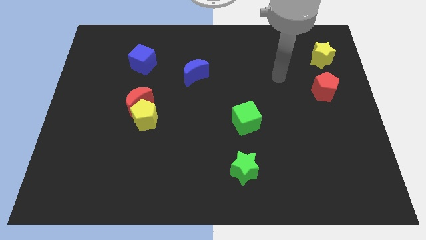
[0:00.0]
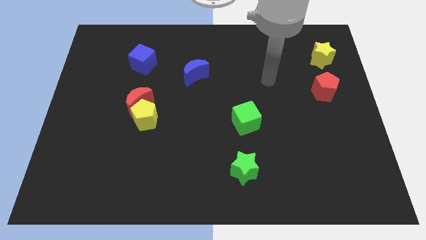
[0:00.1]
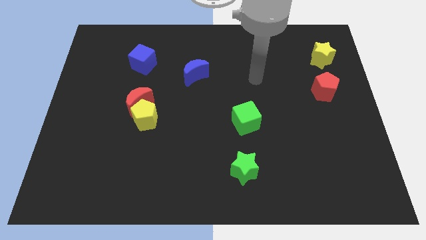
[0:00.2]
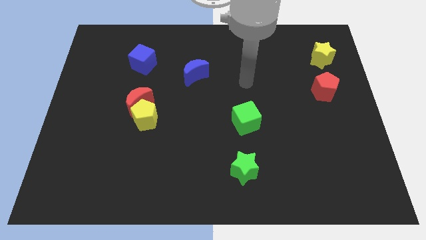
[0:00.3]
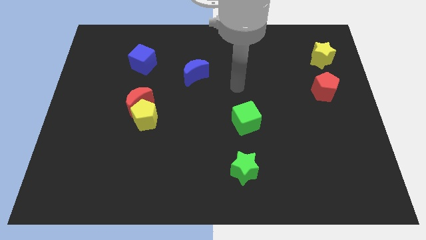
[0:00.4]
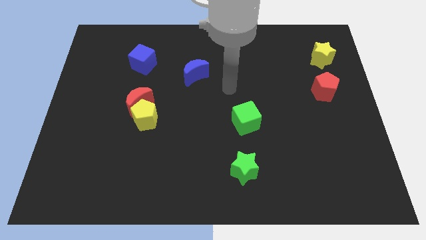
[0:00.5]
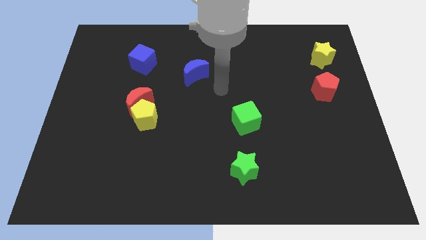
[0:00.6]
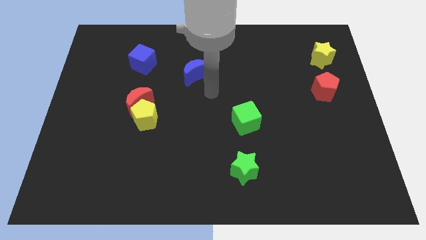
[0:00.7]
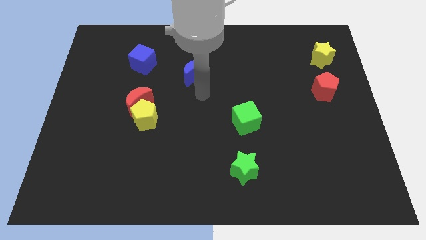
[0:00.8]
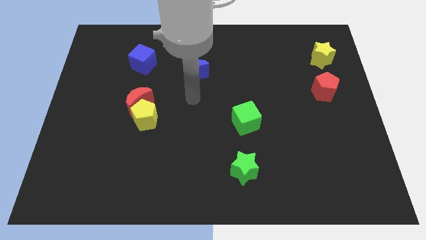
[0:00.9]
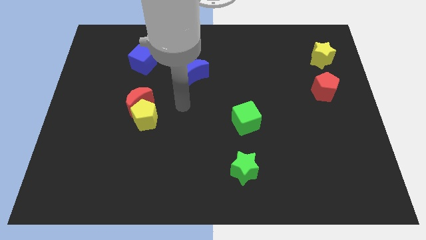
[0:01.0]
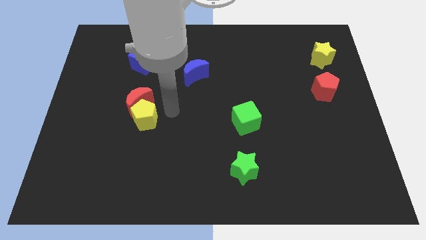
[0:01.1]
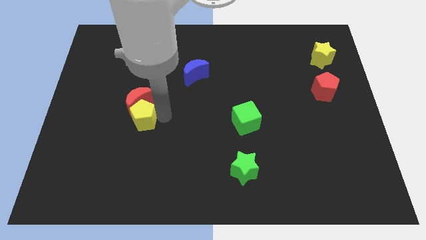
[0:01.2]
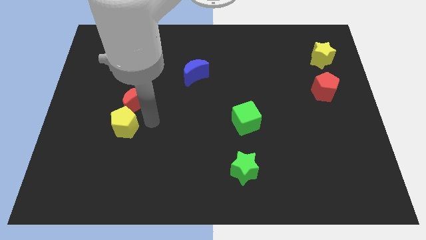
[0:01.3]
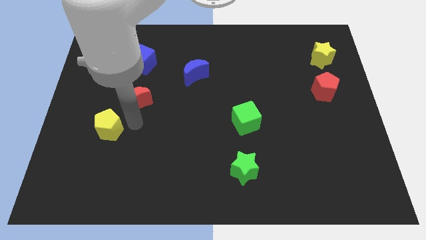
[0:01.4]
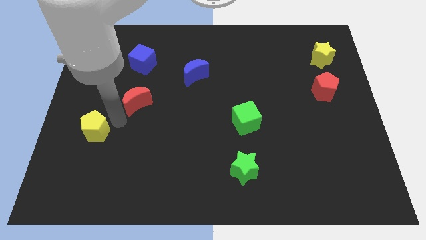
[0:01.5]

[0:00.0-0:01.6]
pull the red moon apart from the yellow pentagon

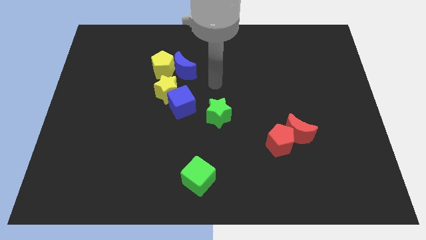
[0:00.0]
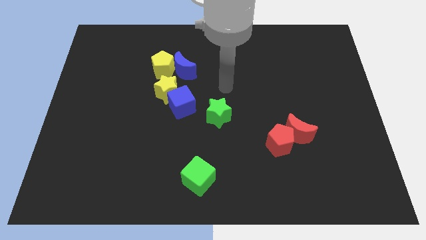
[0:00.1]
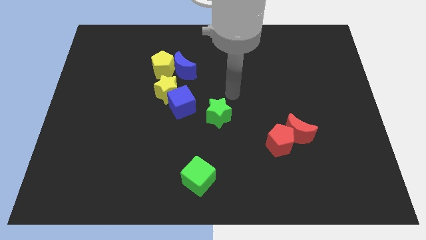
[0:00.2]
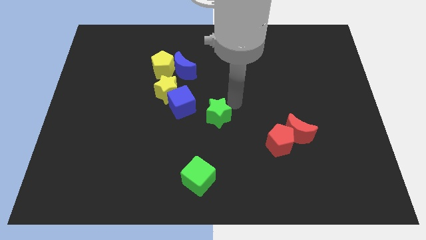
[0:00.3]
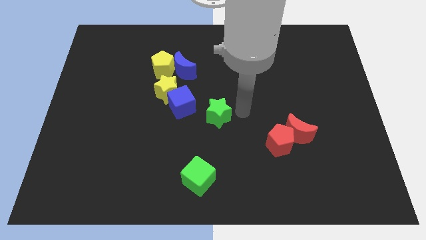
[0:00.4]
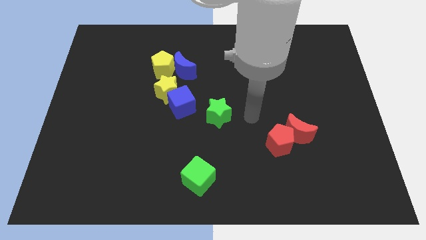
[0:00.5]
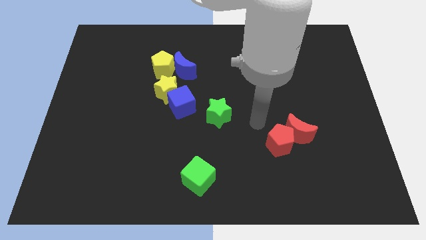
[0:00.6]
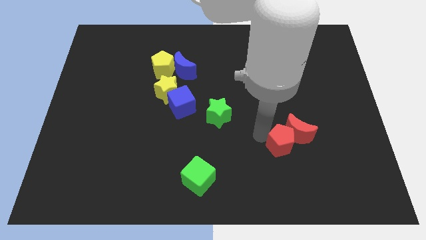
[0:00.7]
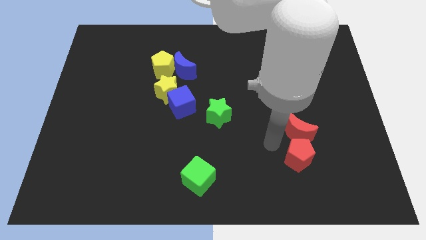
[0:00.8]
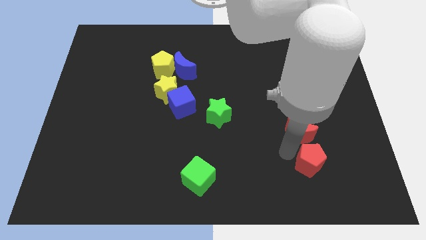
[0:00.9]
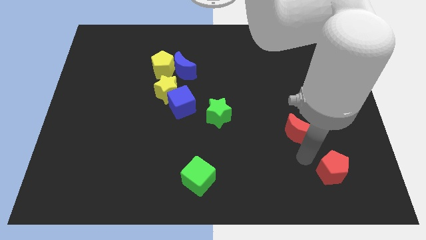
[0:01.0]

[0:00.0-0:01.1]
move the red moon away from the red pentagon

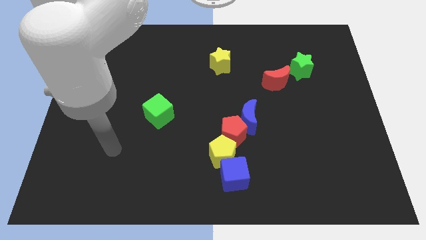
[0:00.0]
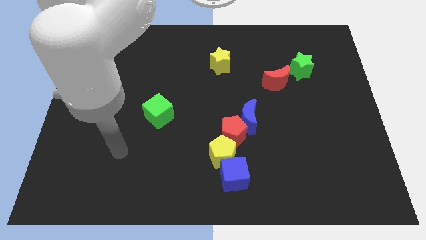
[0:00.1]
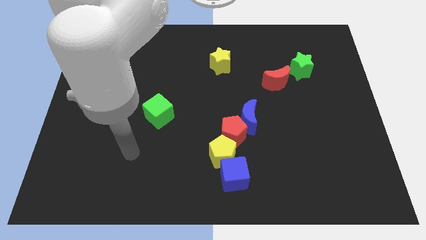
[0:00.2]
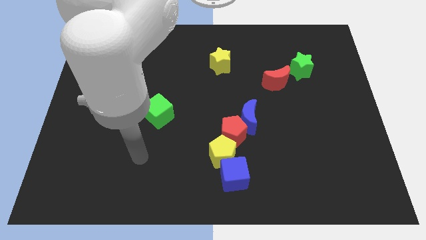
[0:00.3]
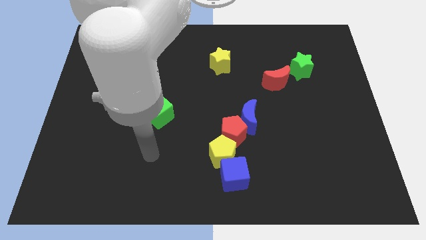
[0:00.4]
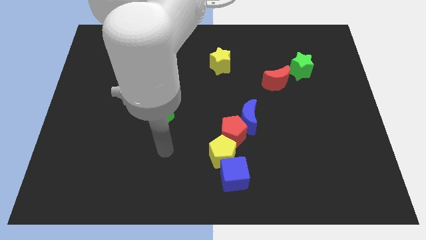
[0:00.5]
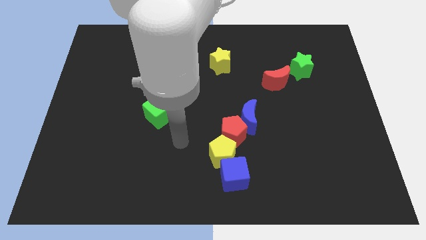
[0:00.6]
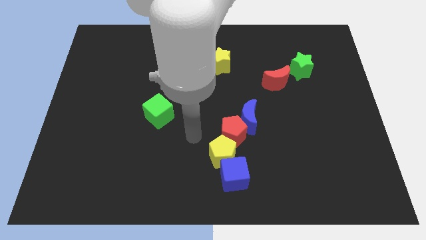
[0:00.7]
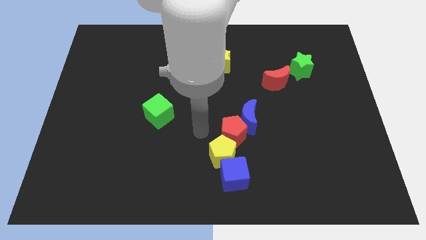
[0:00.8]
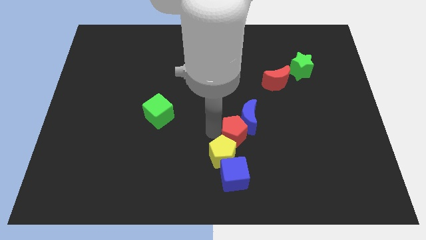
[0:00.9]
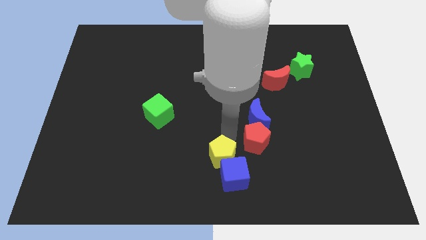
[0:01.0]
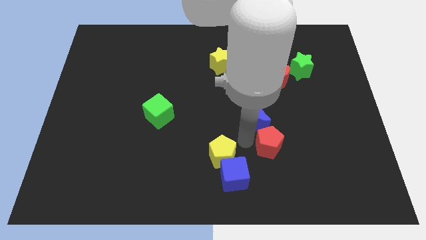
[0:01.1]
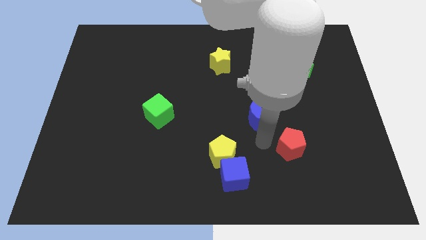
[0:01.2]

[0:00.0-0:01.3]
pull the blue moon apart from the red pentagon

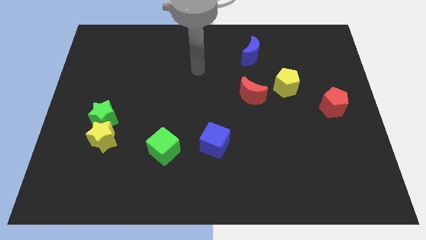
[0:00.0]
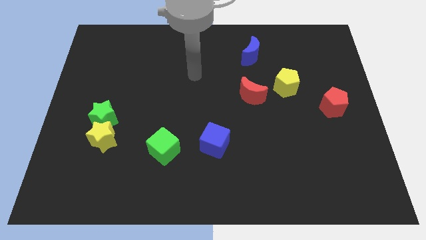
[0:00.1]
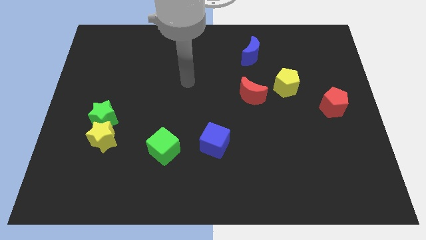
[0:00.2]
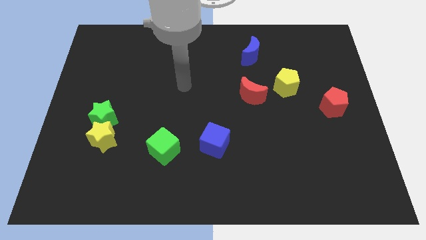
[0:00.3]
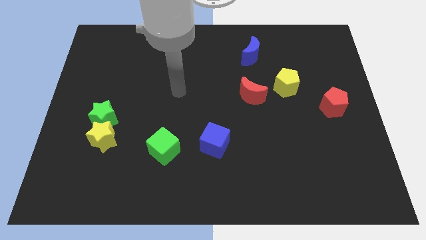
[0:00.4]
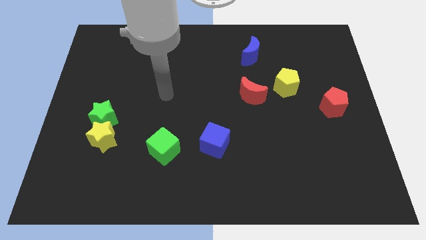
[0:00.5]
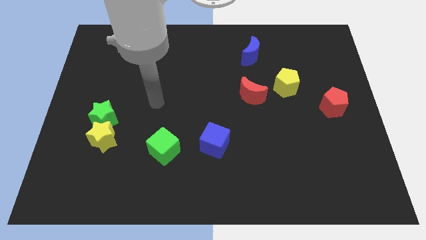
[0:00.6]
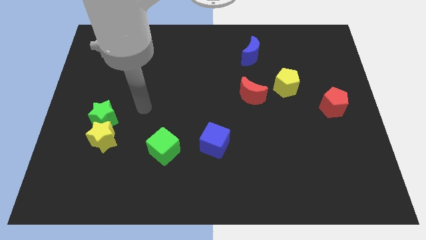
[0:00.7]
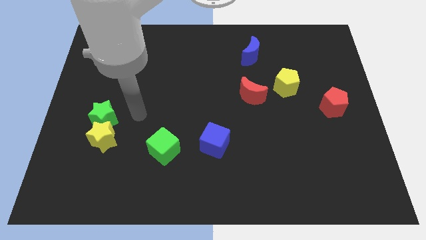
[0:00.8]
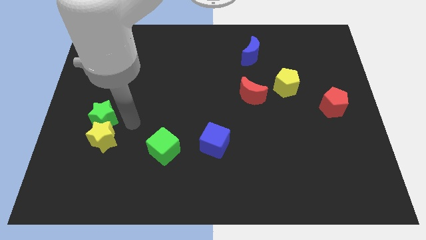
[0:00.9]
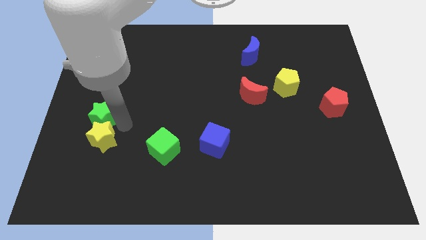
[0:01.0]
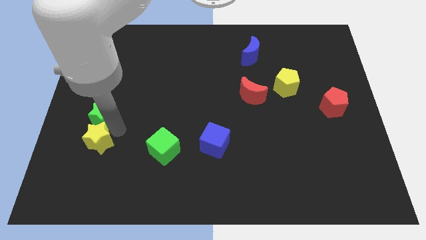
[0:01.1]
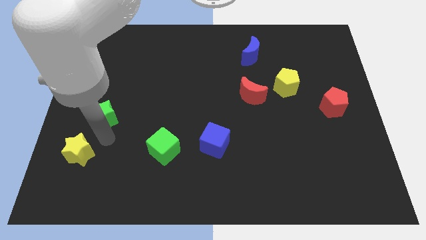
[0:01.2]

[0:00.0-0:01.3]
pull the green star apart from the yellow star

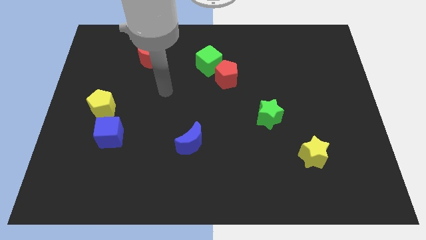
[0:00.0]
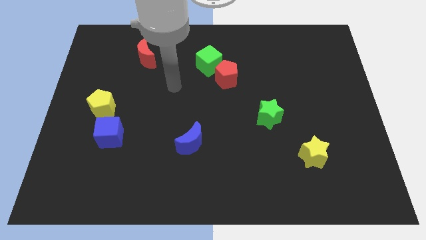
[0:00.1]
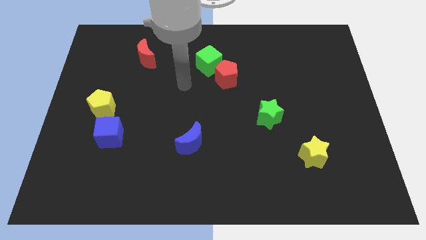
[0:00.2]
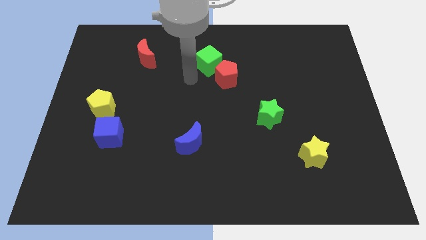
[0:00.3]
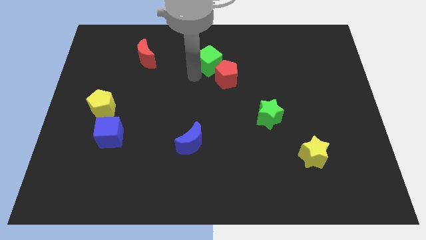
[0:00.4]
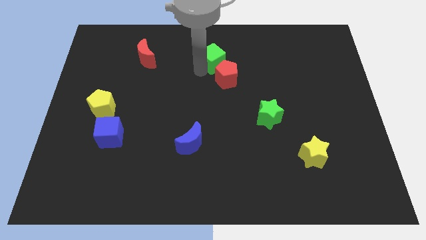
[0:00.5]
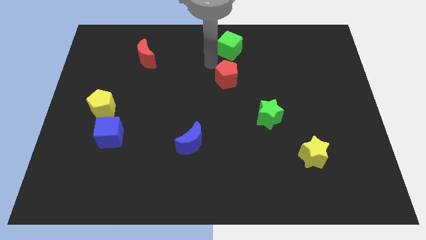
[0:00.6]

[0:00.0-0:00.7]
pull the red pentagon apart from the green cube

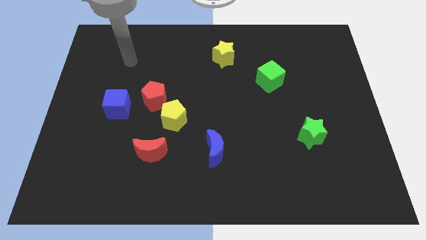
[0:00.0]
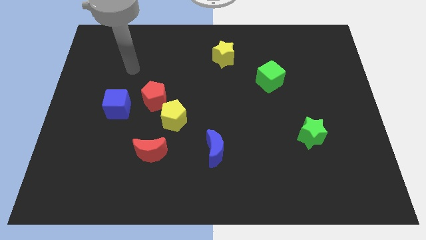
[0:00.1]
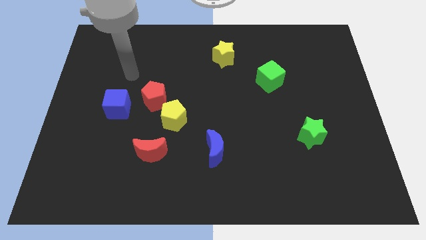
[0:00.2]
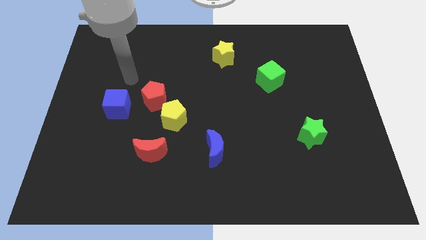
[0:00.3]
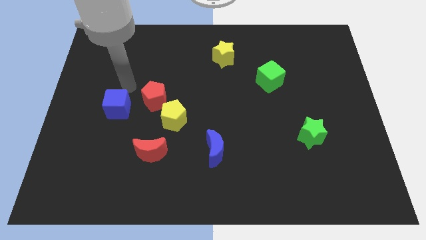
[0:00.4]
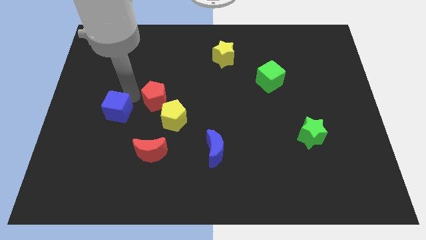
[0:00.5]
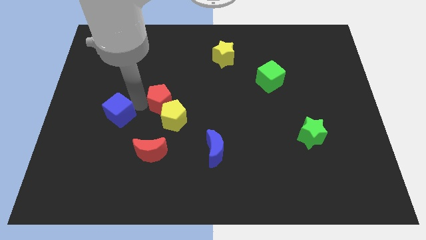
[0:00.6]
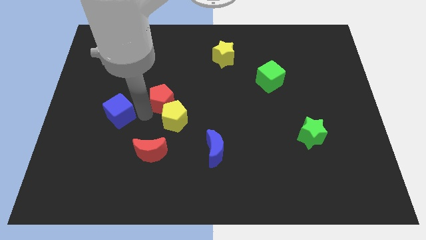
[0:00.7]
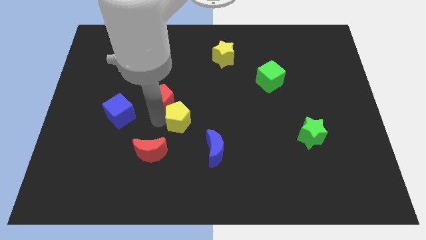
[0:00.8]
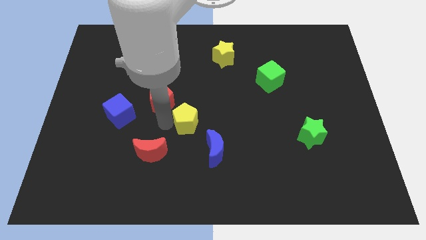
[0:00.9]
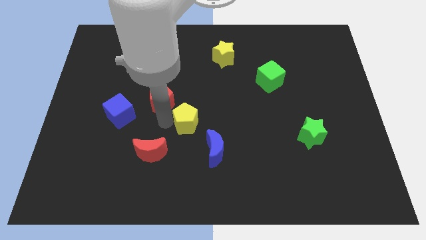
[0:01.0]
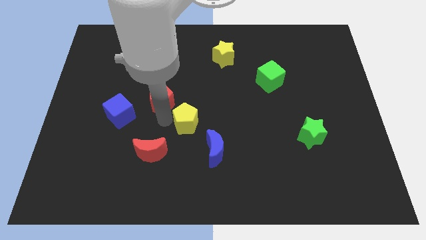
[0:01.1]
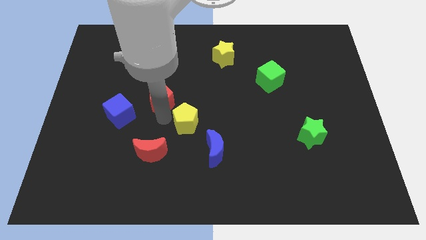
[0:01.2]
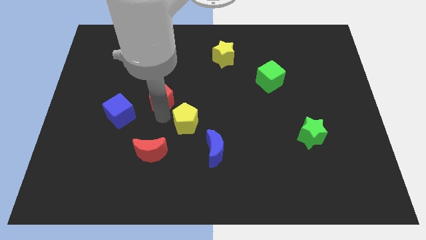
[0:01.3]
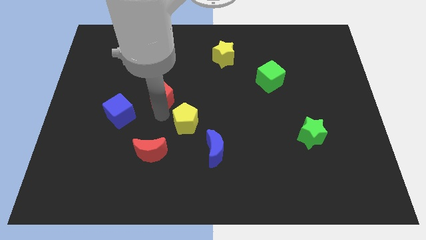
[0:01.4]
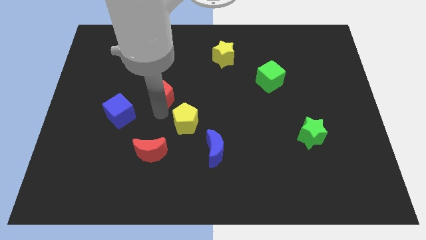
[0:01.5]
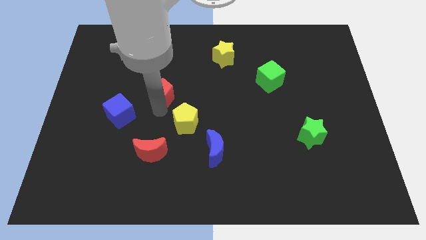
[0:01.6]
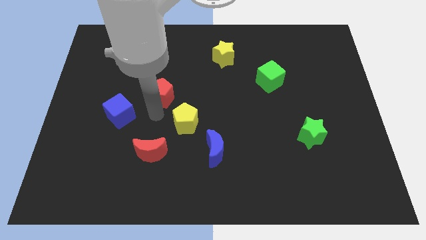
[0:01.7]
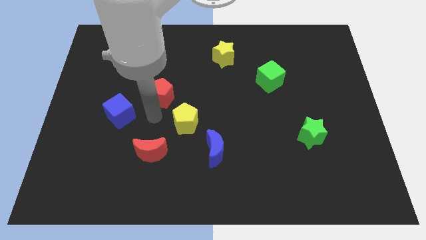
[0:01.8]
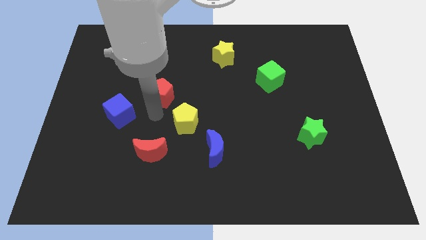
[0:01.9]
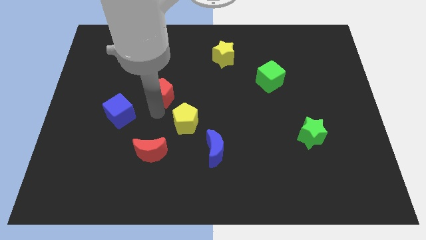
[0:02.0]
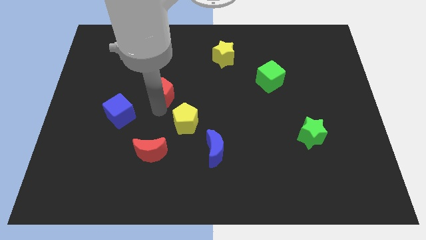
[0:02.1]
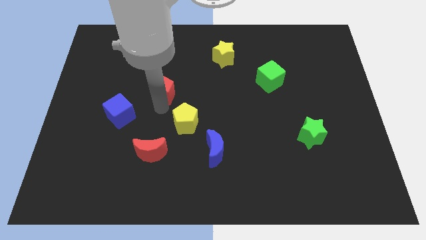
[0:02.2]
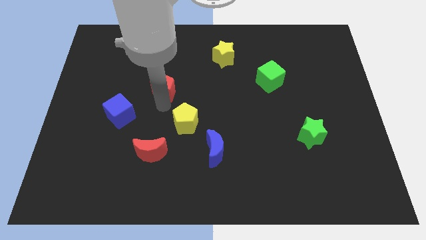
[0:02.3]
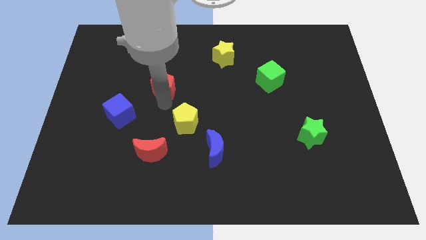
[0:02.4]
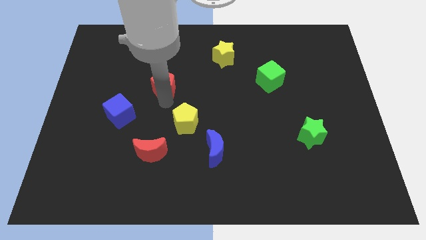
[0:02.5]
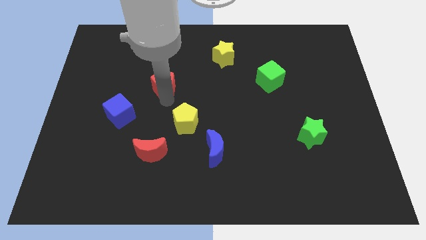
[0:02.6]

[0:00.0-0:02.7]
move the red pentagon away from the yellow pentagon and blue cube

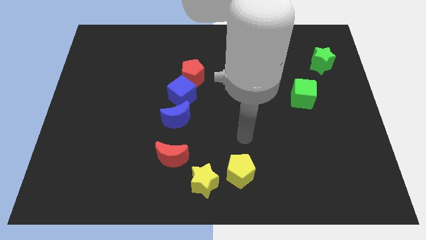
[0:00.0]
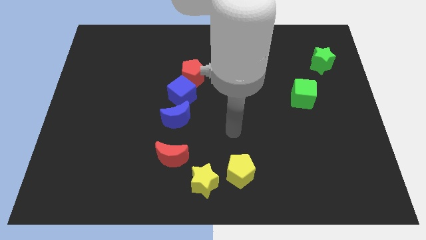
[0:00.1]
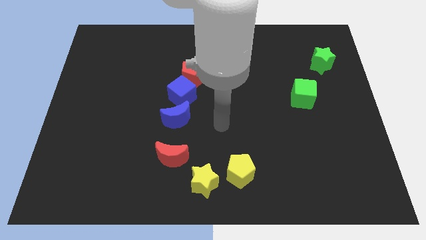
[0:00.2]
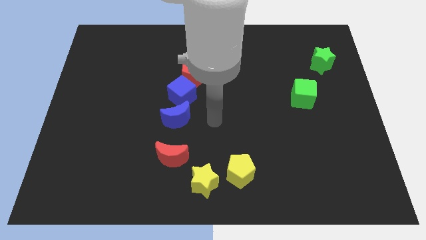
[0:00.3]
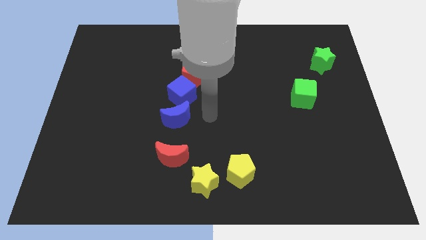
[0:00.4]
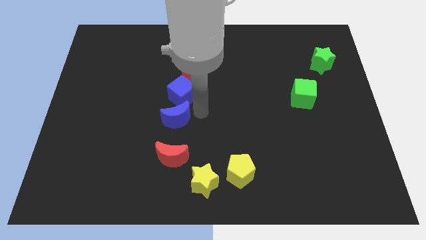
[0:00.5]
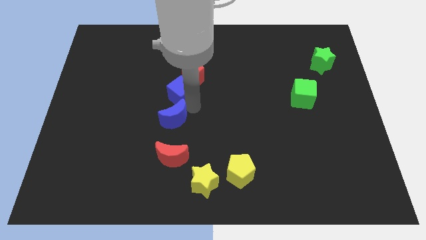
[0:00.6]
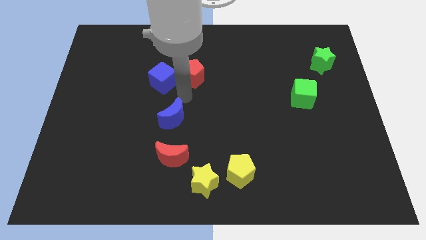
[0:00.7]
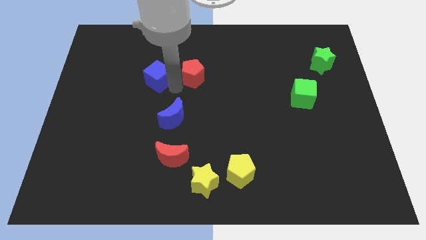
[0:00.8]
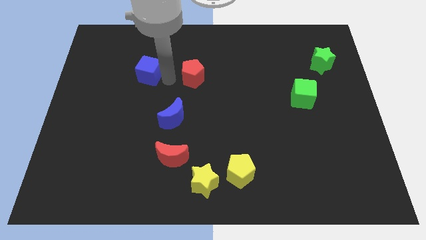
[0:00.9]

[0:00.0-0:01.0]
pull the red pentagon apart from the blue cube
